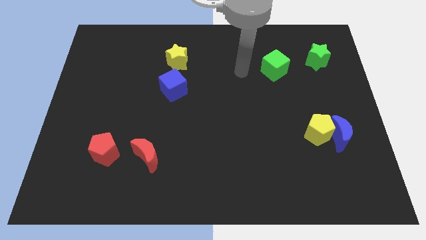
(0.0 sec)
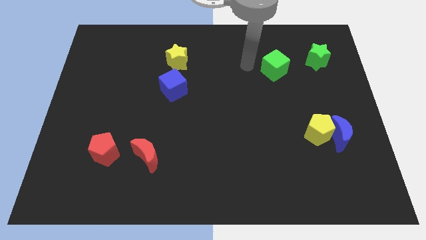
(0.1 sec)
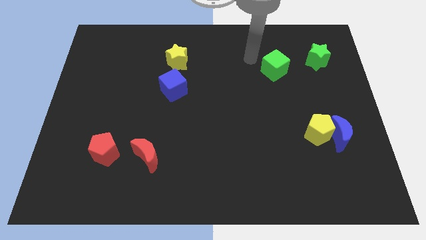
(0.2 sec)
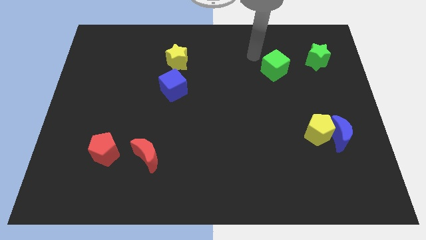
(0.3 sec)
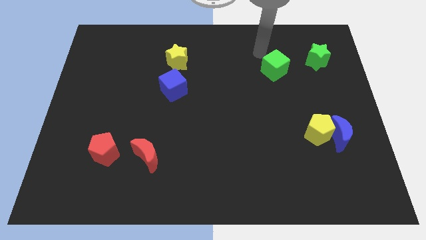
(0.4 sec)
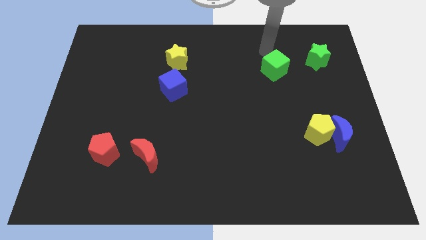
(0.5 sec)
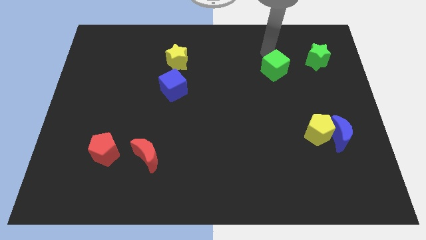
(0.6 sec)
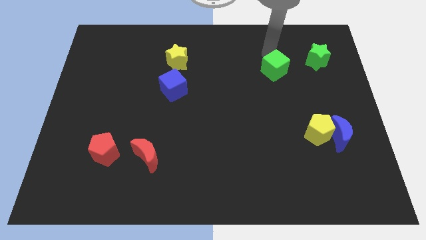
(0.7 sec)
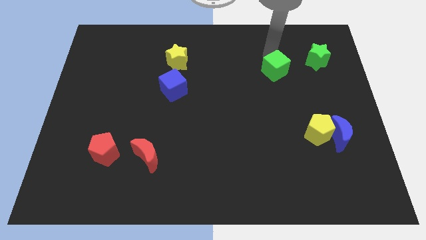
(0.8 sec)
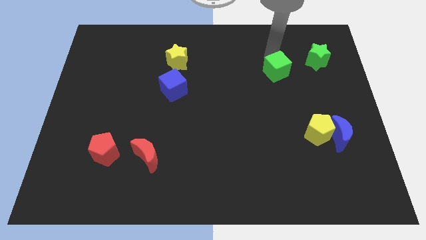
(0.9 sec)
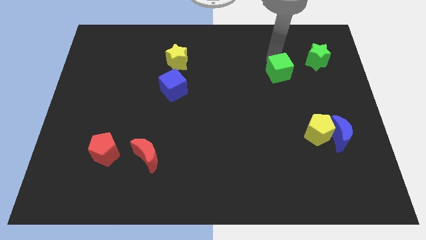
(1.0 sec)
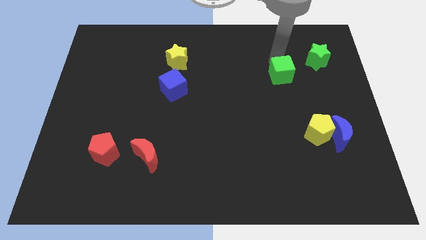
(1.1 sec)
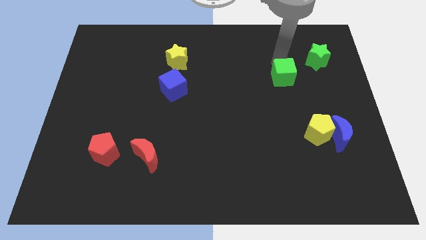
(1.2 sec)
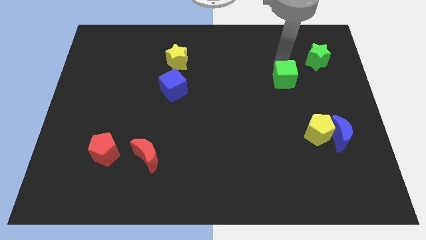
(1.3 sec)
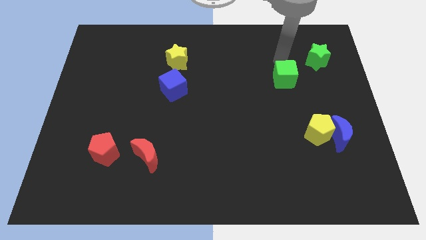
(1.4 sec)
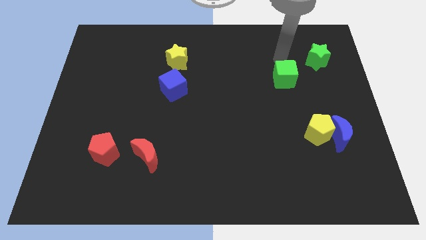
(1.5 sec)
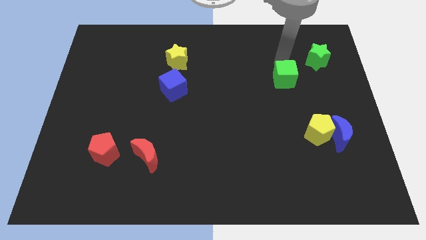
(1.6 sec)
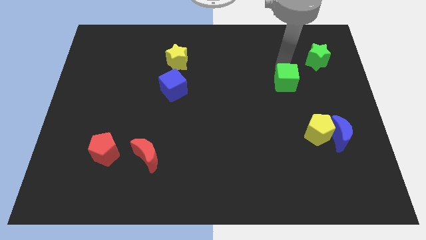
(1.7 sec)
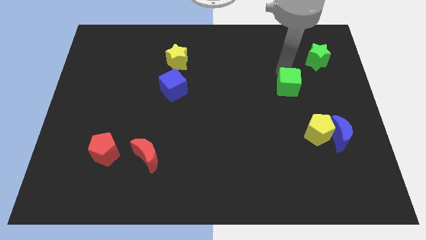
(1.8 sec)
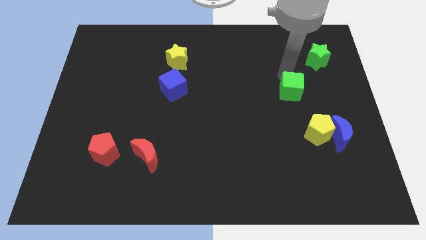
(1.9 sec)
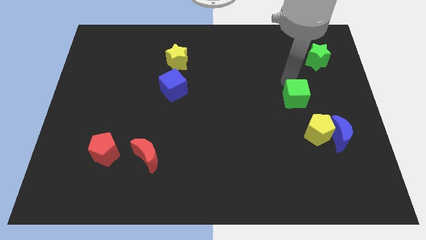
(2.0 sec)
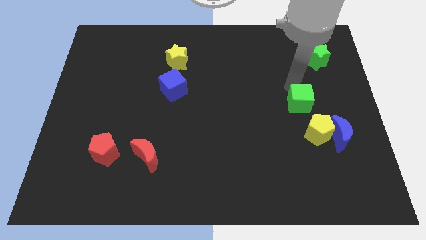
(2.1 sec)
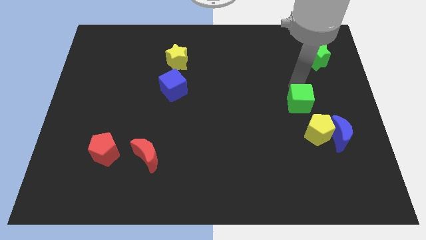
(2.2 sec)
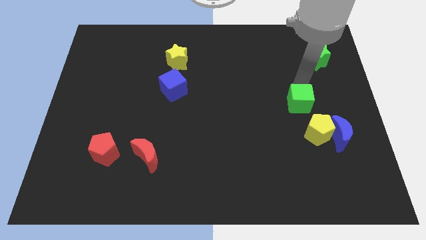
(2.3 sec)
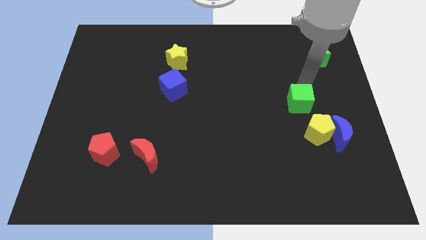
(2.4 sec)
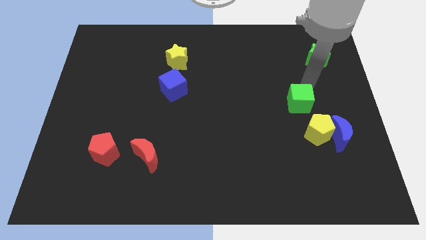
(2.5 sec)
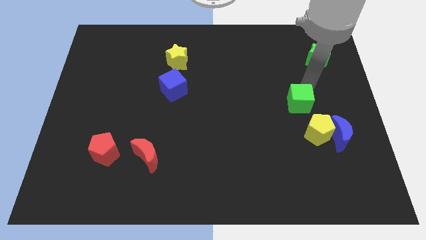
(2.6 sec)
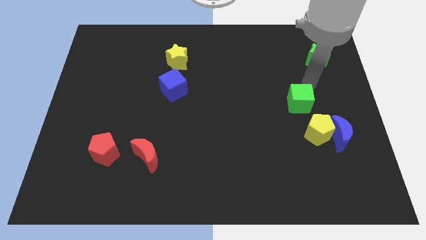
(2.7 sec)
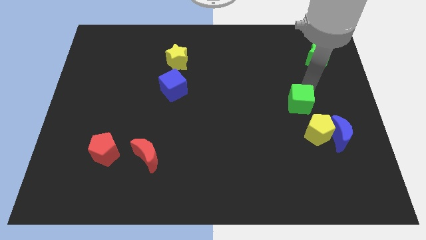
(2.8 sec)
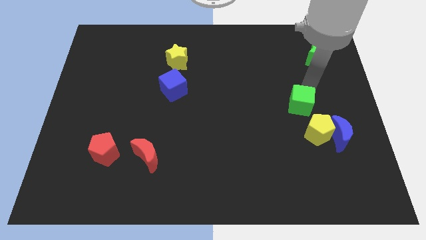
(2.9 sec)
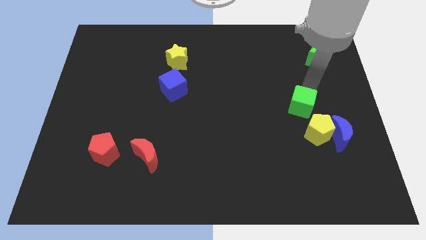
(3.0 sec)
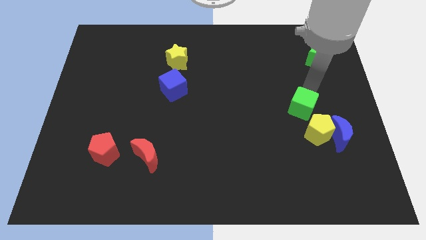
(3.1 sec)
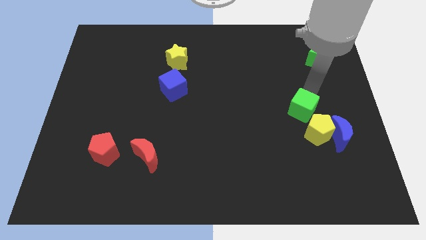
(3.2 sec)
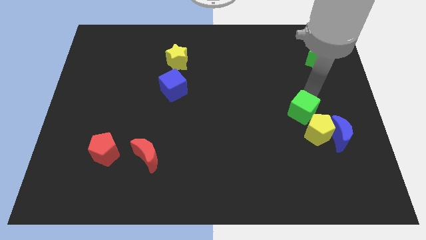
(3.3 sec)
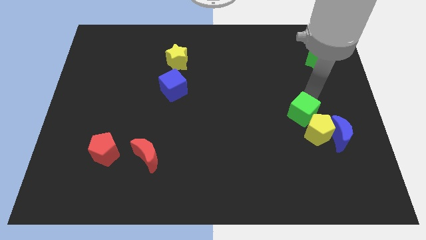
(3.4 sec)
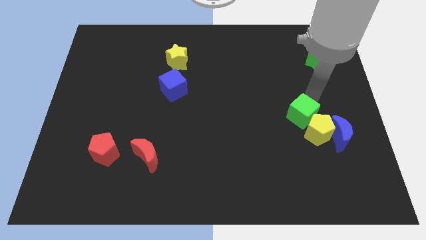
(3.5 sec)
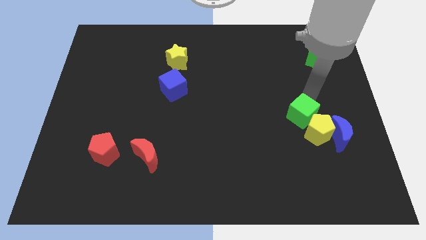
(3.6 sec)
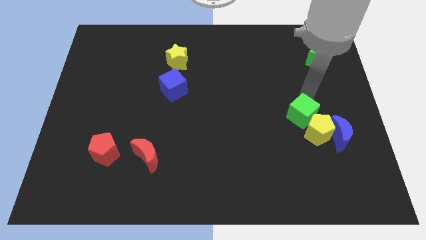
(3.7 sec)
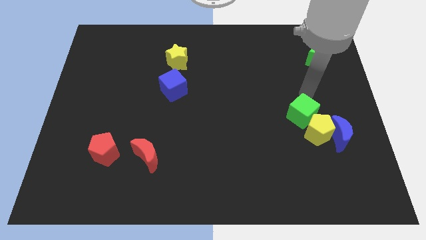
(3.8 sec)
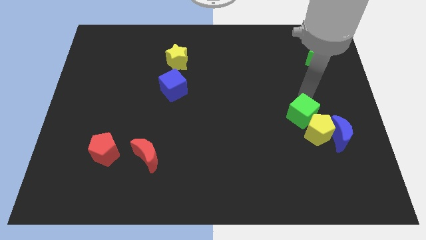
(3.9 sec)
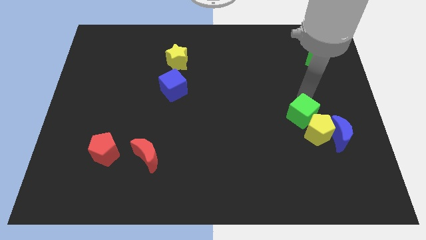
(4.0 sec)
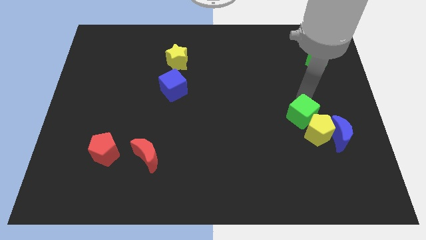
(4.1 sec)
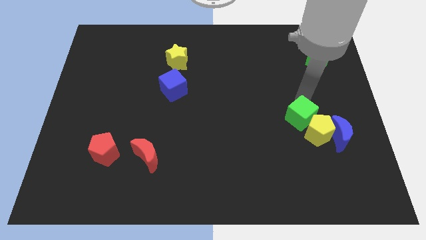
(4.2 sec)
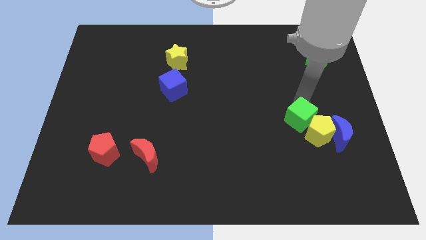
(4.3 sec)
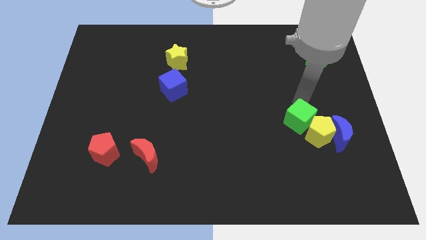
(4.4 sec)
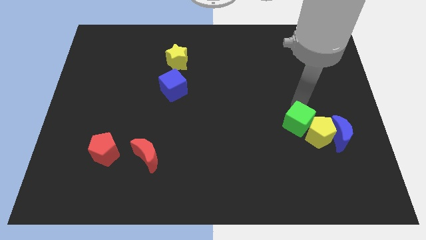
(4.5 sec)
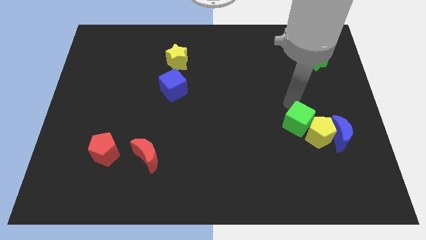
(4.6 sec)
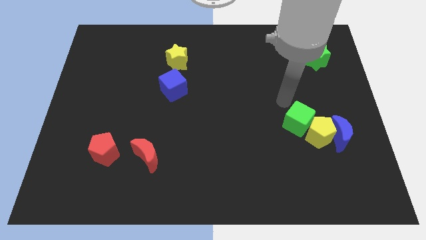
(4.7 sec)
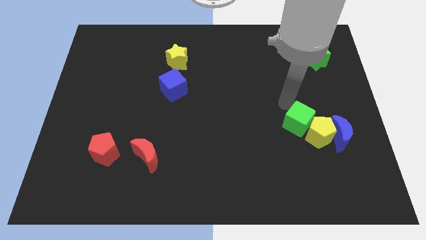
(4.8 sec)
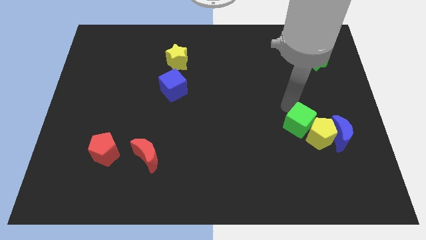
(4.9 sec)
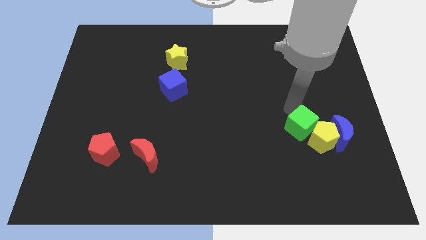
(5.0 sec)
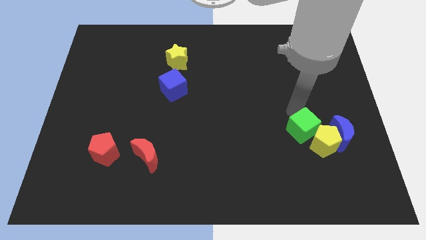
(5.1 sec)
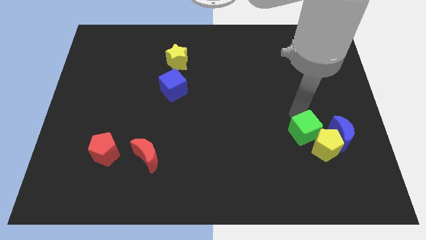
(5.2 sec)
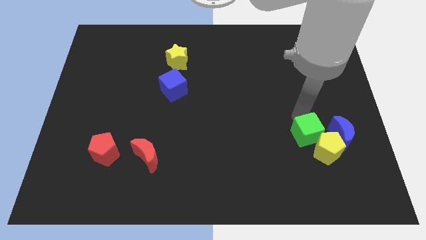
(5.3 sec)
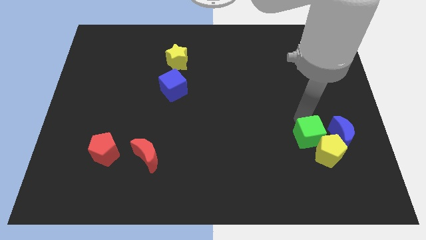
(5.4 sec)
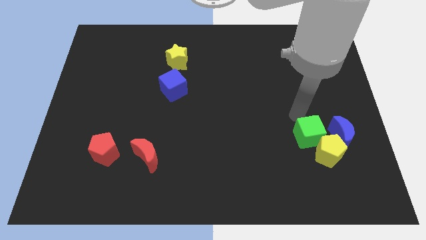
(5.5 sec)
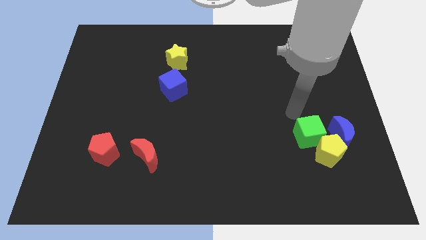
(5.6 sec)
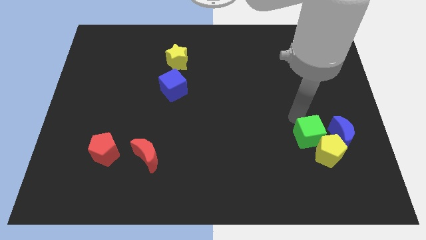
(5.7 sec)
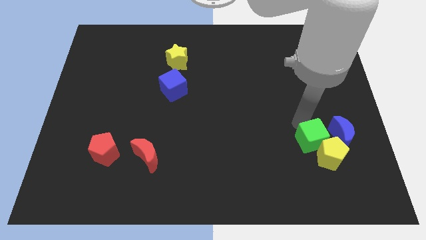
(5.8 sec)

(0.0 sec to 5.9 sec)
push the green cube to the bottom left of the blue moon

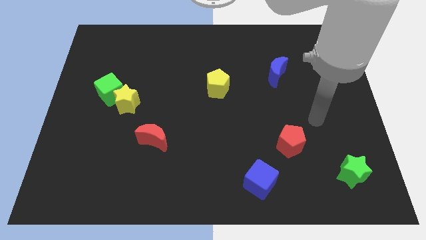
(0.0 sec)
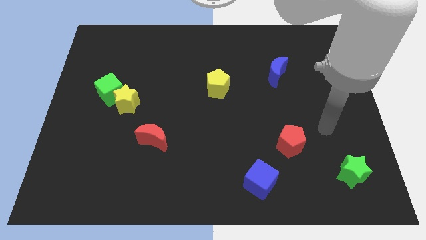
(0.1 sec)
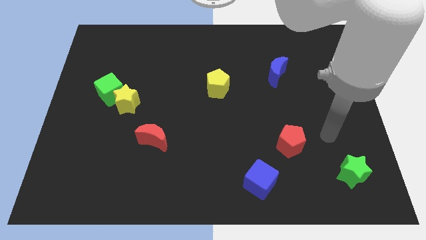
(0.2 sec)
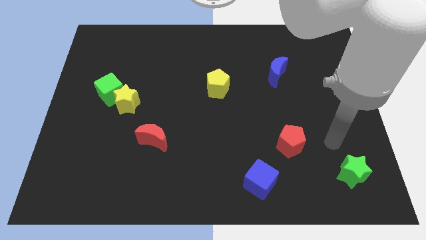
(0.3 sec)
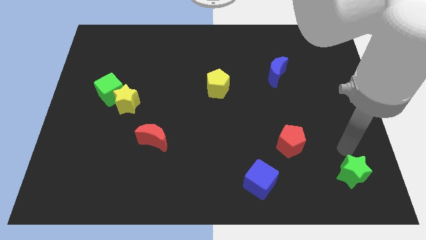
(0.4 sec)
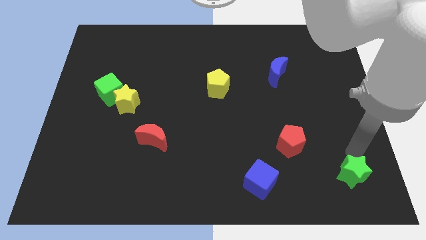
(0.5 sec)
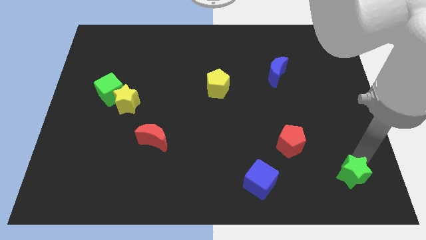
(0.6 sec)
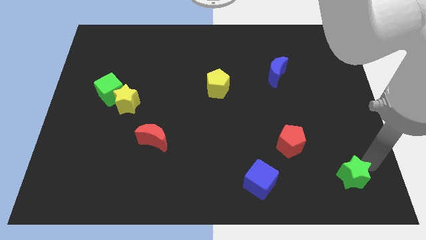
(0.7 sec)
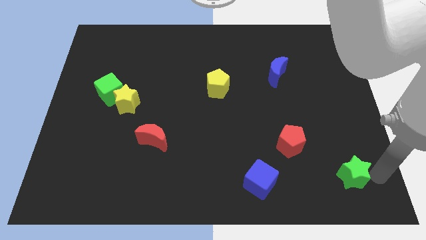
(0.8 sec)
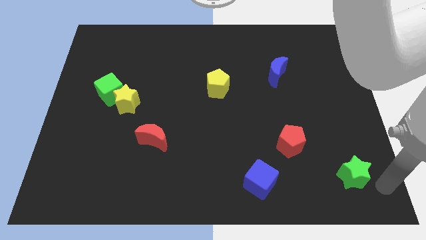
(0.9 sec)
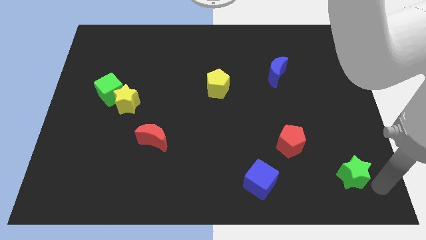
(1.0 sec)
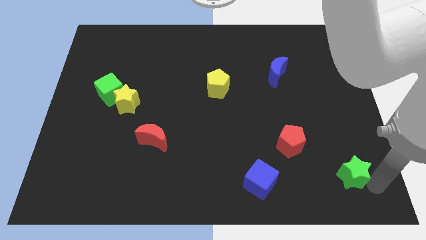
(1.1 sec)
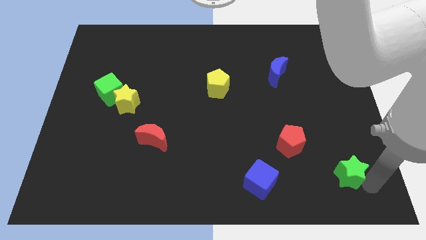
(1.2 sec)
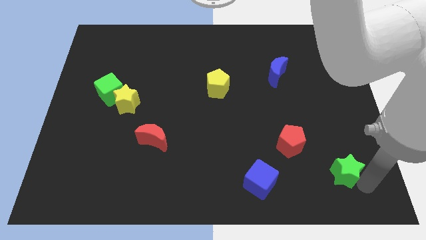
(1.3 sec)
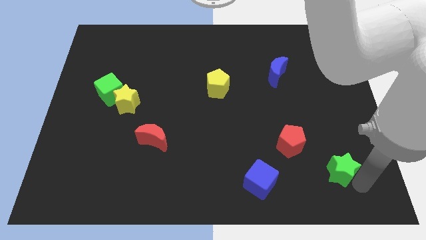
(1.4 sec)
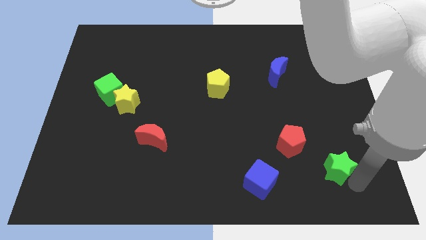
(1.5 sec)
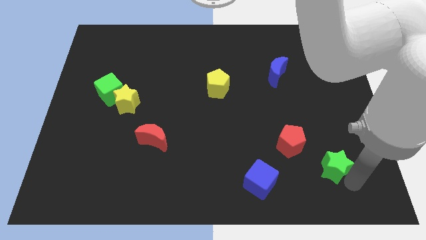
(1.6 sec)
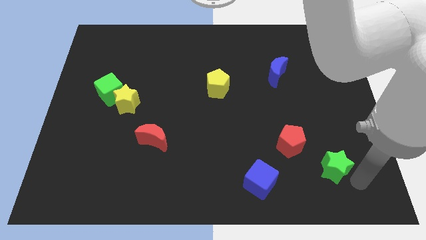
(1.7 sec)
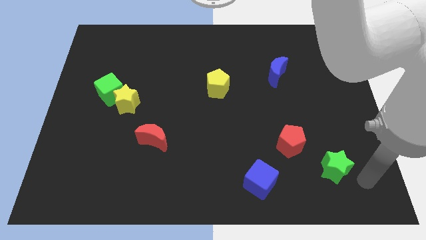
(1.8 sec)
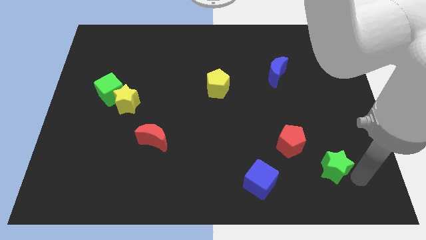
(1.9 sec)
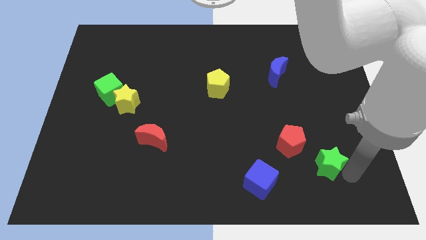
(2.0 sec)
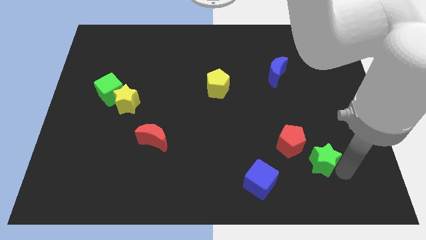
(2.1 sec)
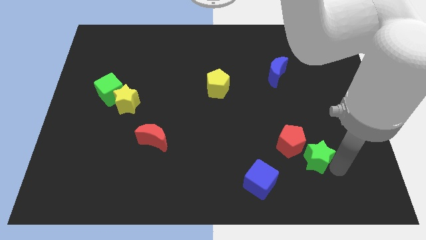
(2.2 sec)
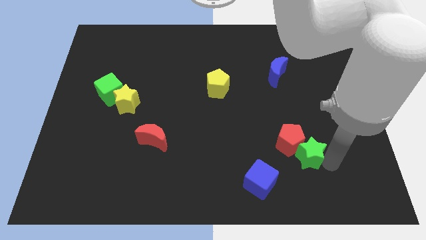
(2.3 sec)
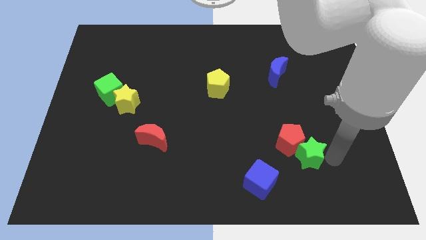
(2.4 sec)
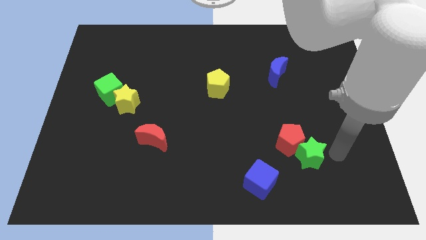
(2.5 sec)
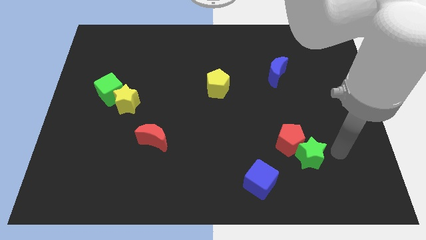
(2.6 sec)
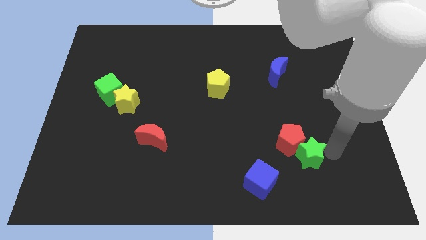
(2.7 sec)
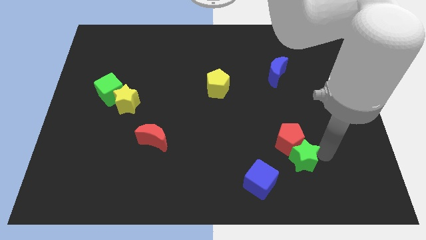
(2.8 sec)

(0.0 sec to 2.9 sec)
move the green star to the top right side of the blue cube
